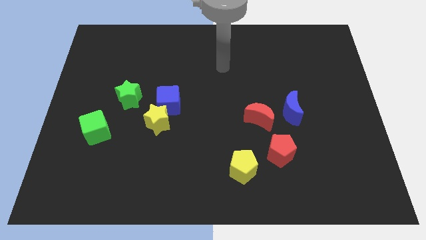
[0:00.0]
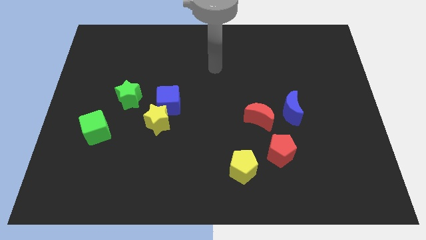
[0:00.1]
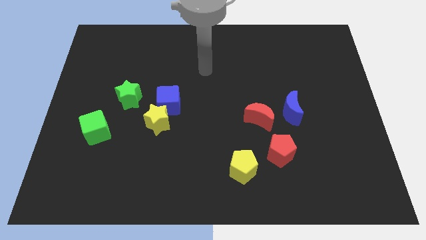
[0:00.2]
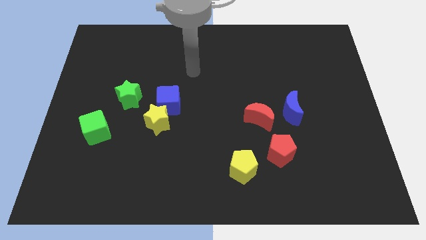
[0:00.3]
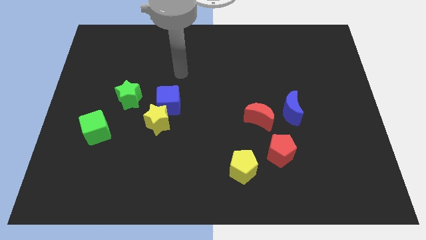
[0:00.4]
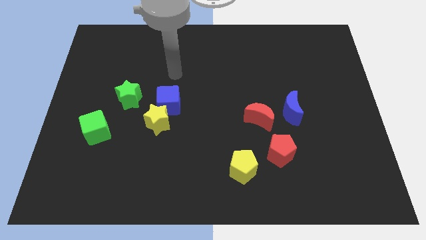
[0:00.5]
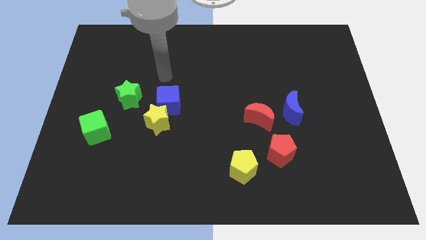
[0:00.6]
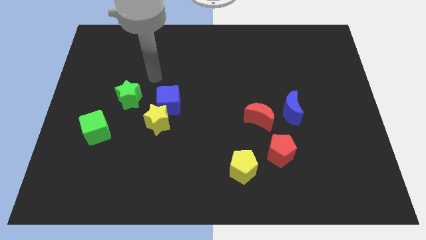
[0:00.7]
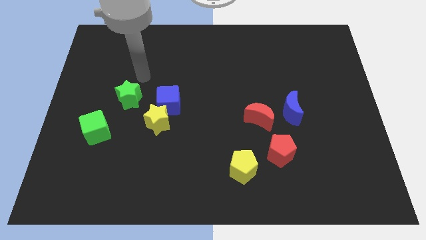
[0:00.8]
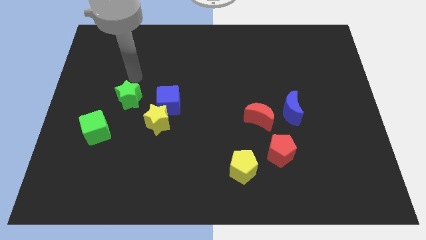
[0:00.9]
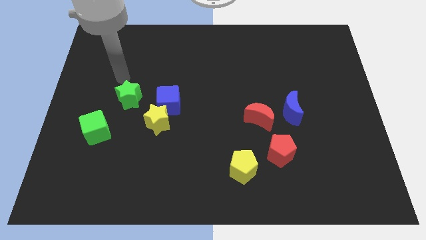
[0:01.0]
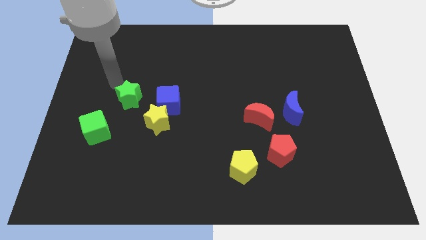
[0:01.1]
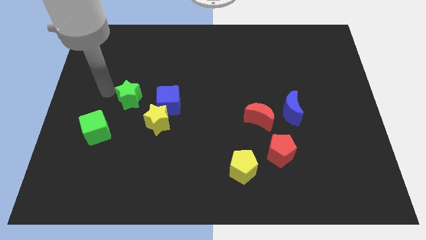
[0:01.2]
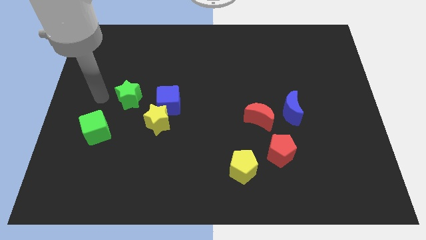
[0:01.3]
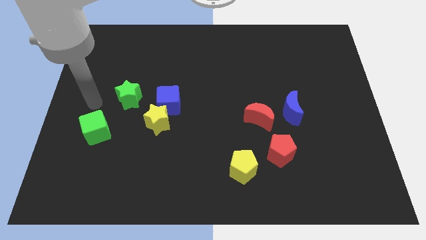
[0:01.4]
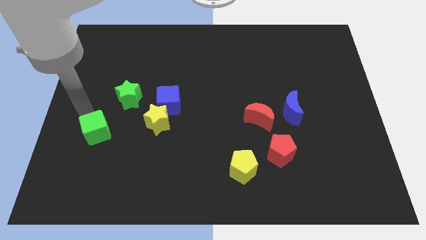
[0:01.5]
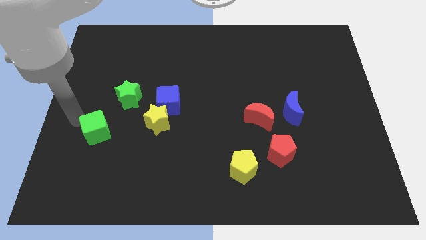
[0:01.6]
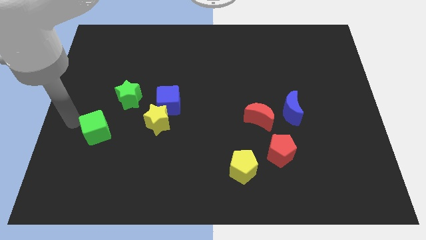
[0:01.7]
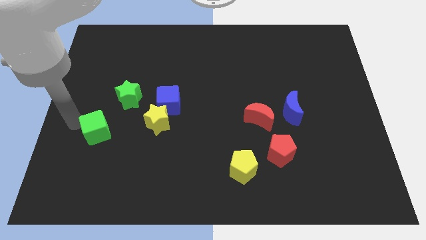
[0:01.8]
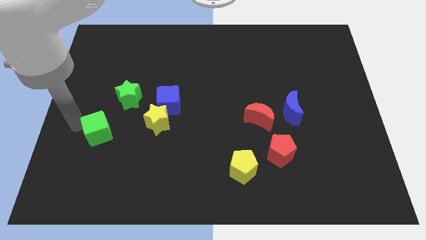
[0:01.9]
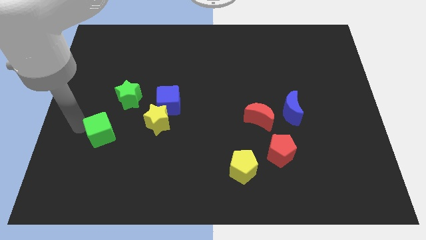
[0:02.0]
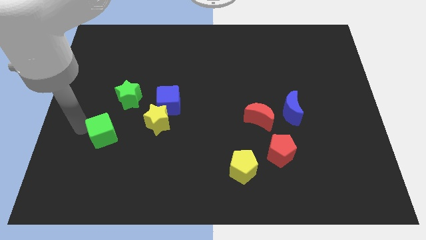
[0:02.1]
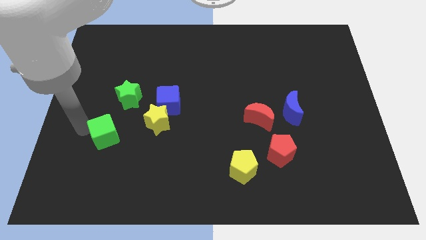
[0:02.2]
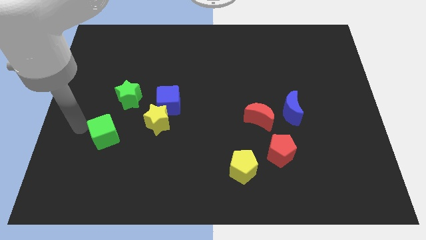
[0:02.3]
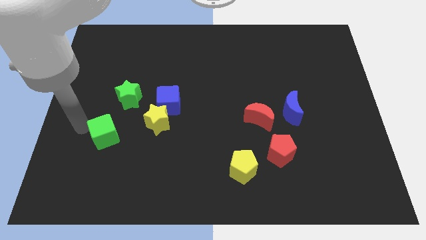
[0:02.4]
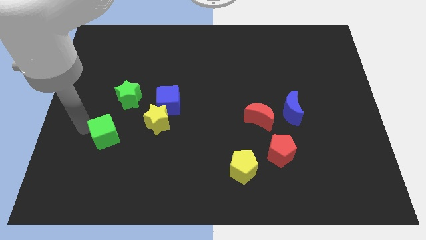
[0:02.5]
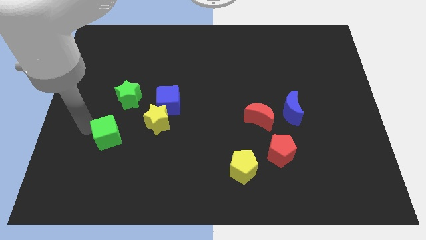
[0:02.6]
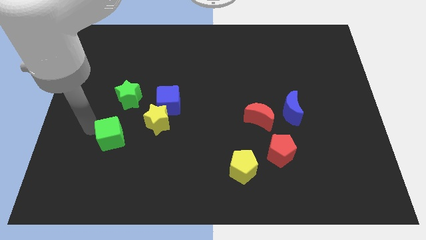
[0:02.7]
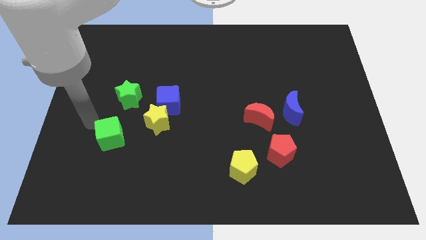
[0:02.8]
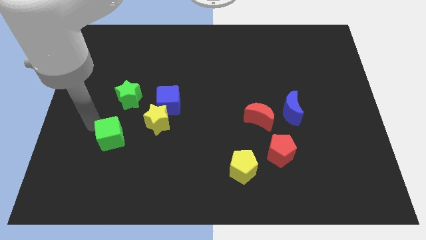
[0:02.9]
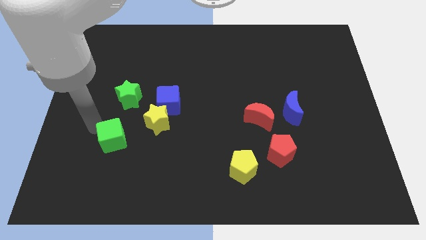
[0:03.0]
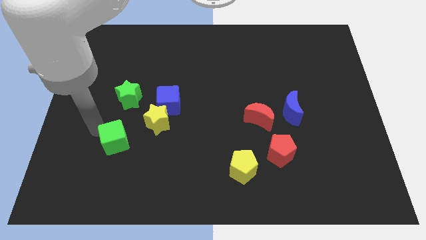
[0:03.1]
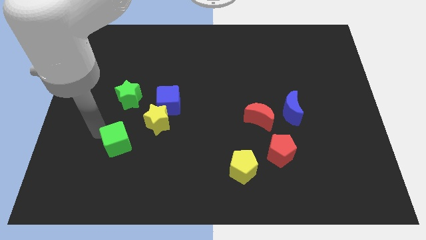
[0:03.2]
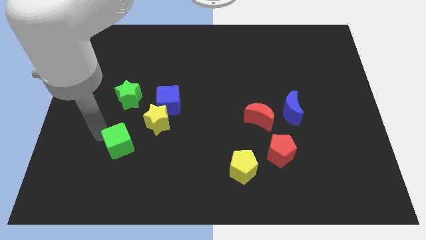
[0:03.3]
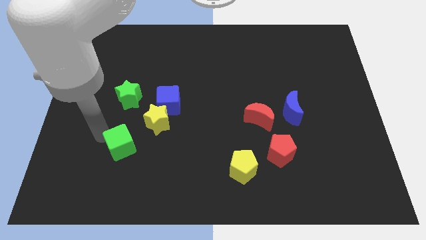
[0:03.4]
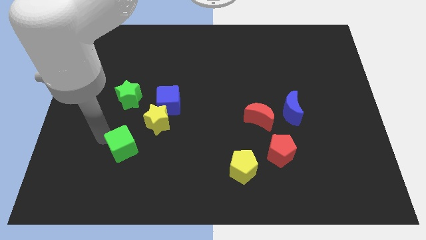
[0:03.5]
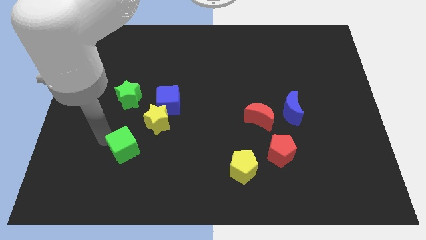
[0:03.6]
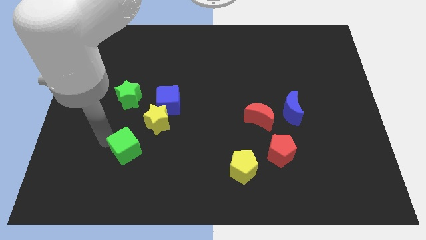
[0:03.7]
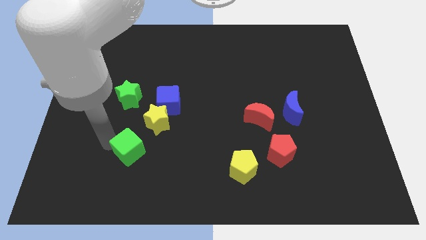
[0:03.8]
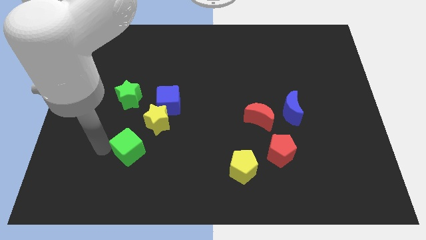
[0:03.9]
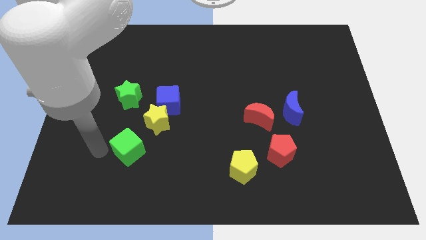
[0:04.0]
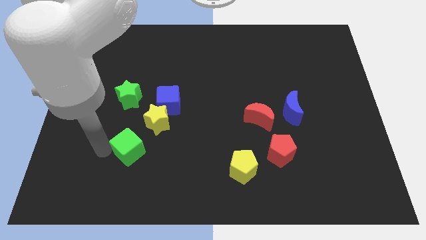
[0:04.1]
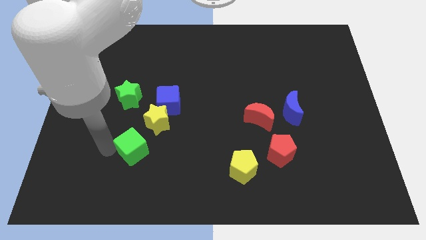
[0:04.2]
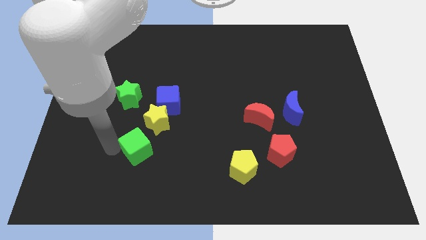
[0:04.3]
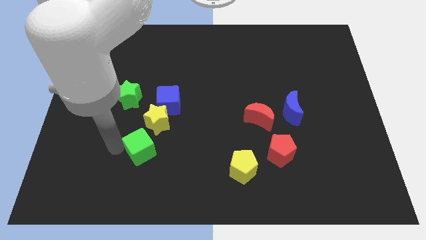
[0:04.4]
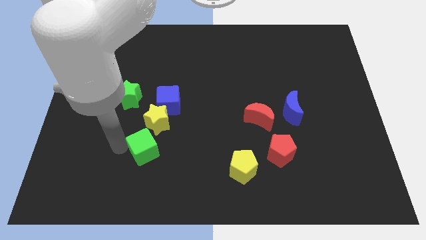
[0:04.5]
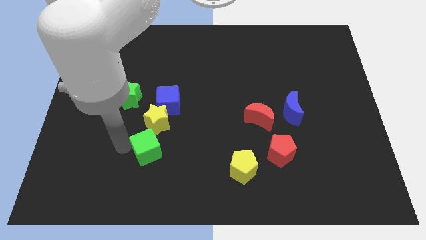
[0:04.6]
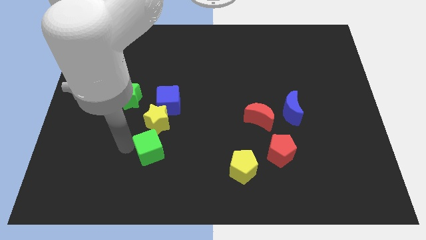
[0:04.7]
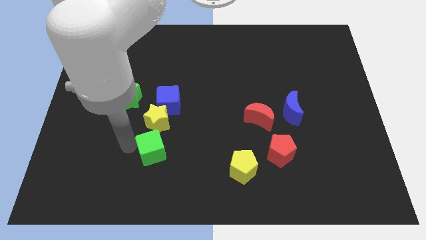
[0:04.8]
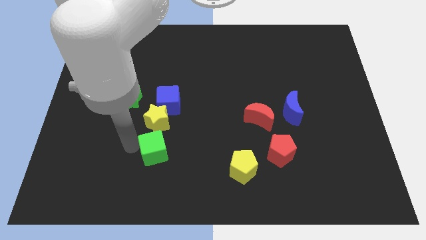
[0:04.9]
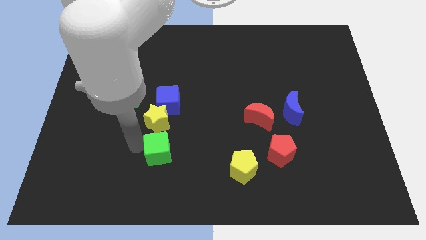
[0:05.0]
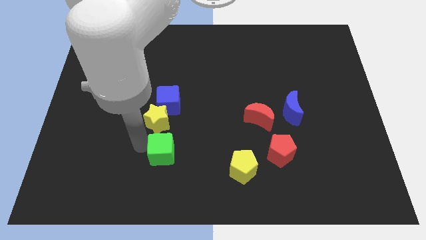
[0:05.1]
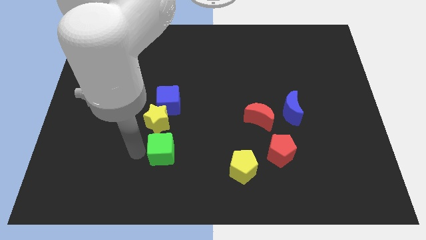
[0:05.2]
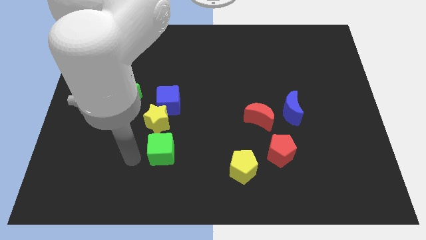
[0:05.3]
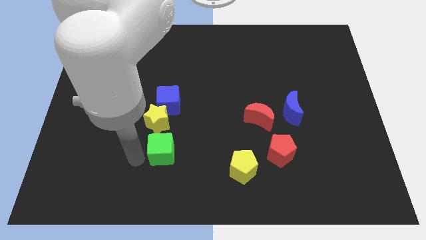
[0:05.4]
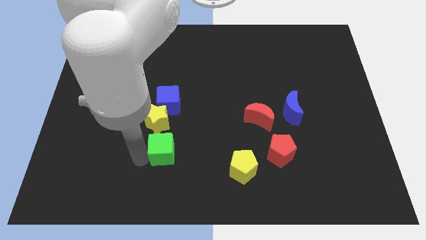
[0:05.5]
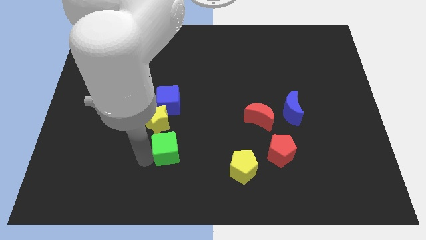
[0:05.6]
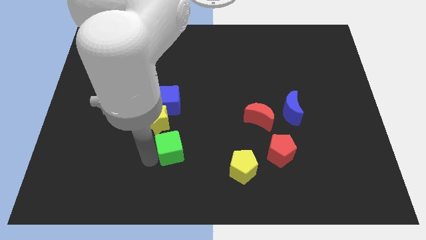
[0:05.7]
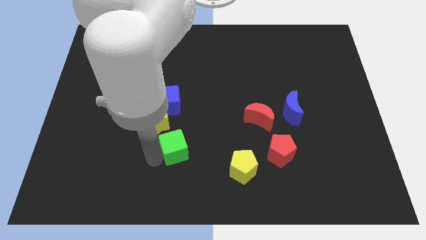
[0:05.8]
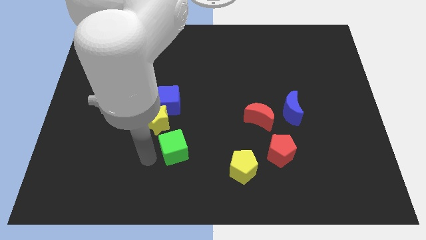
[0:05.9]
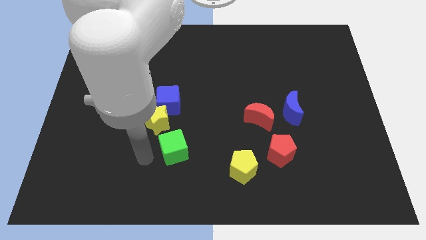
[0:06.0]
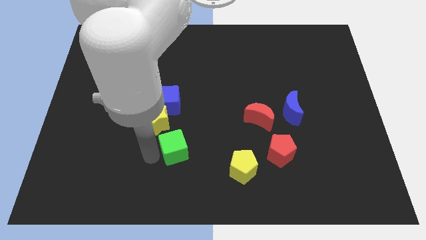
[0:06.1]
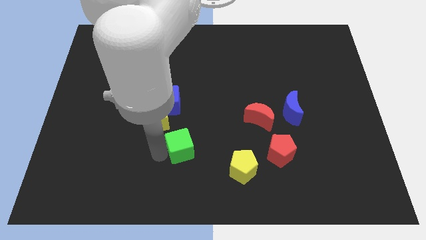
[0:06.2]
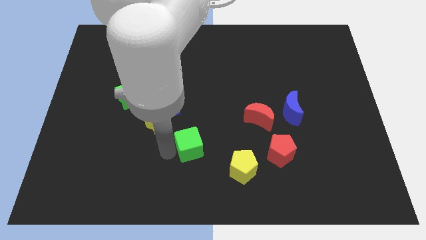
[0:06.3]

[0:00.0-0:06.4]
move the green cube right

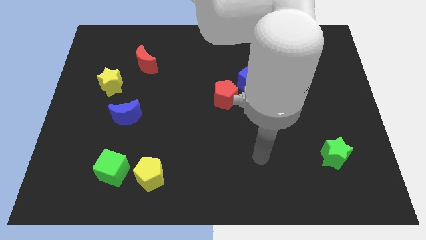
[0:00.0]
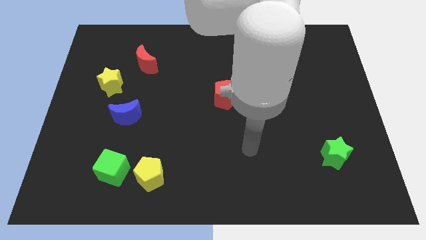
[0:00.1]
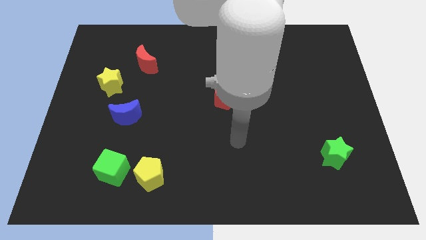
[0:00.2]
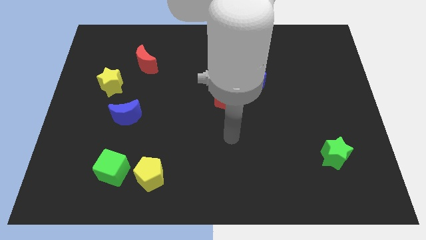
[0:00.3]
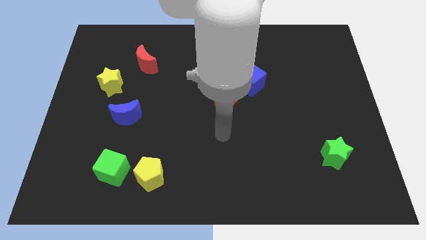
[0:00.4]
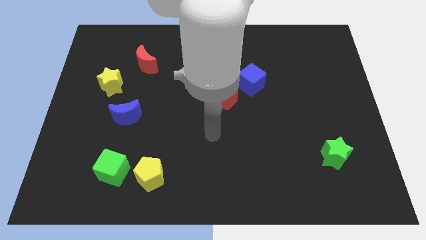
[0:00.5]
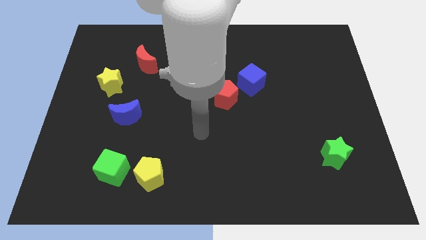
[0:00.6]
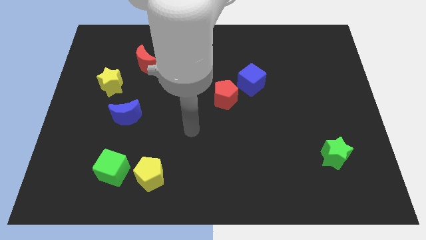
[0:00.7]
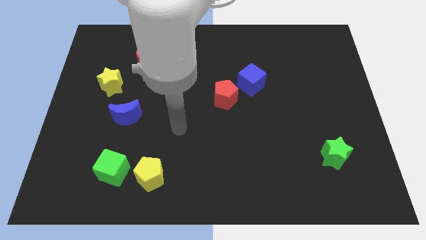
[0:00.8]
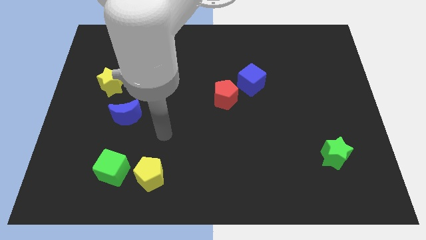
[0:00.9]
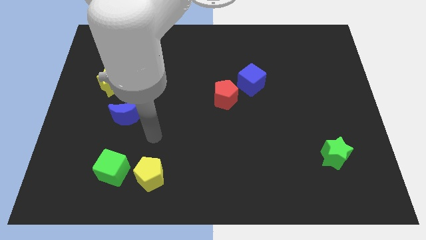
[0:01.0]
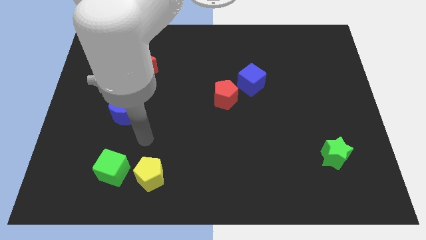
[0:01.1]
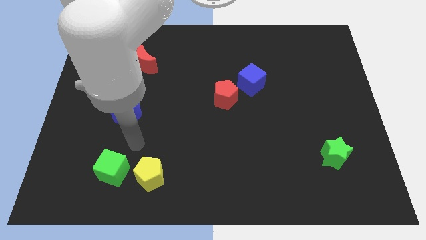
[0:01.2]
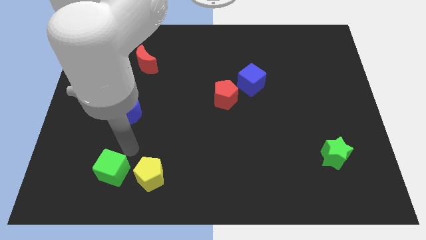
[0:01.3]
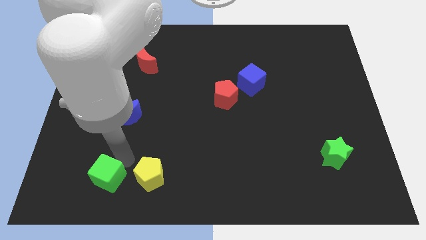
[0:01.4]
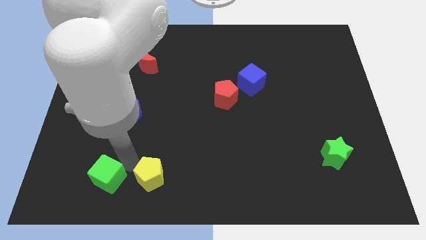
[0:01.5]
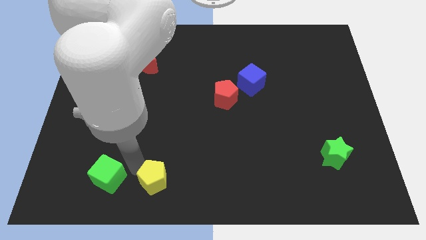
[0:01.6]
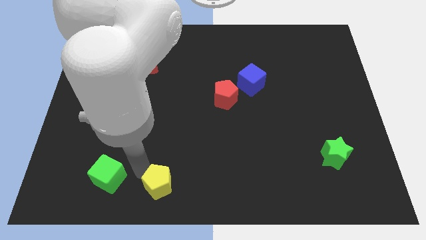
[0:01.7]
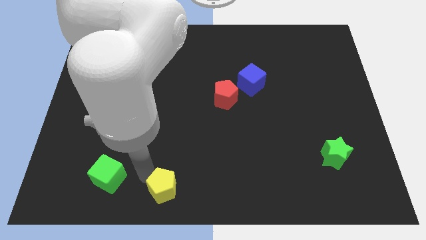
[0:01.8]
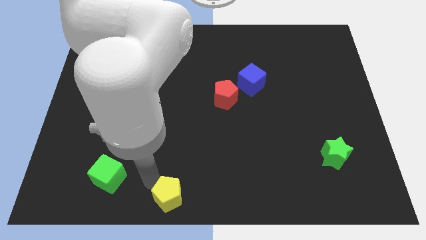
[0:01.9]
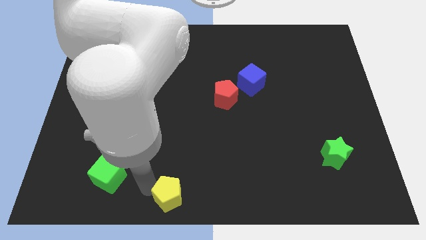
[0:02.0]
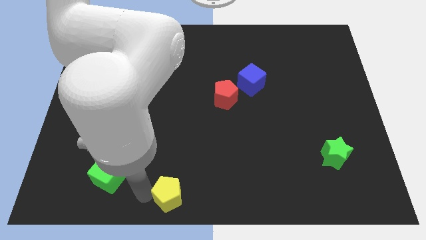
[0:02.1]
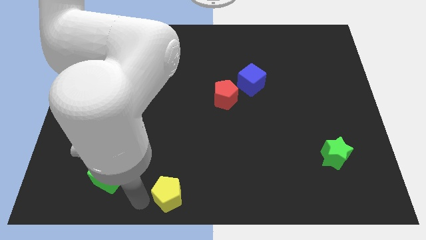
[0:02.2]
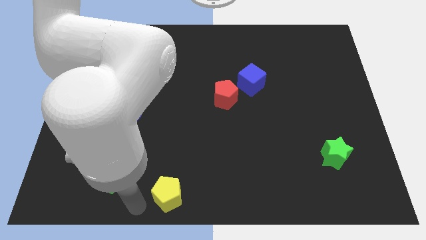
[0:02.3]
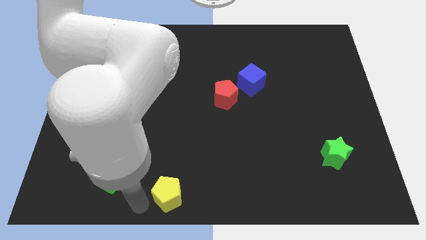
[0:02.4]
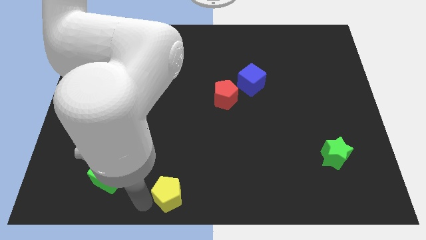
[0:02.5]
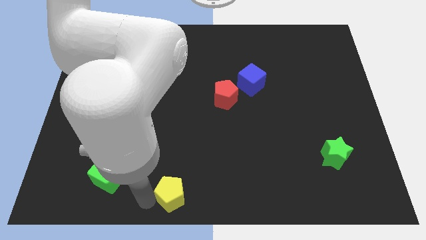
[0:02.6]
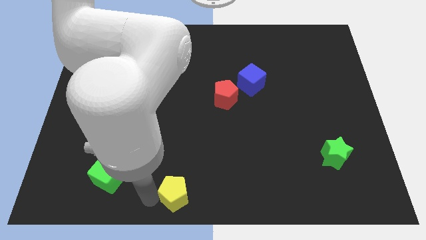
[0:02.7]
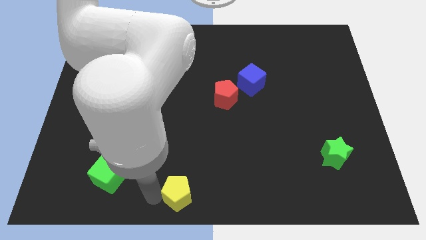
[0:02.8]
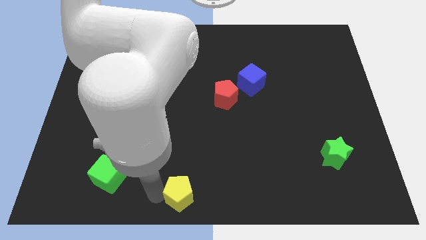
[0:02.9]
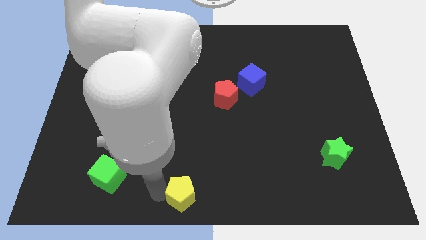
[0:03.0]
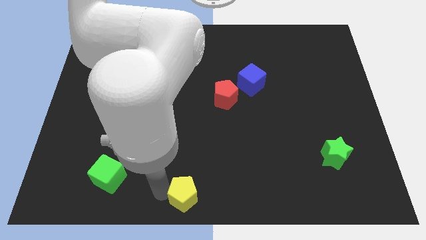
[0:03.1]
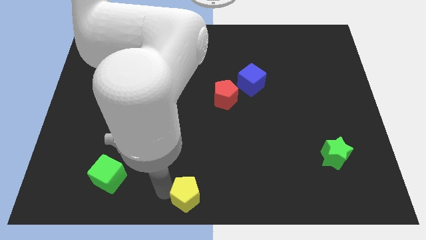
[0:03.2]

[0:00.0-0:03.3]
slightly push the yellow pentagon right
